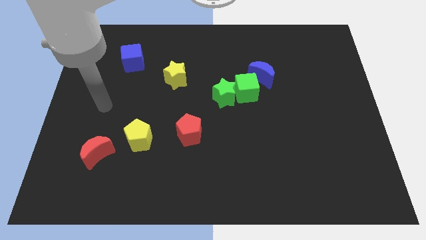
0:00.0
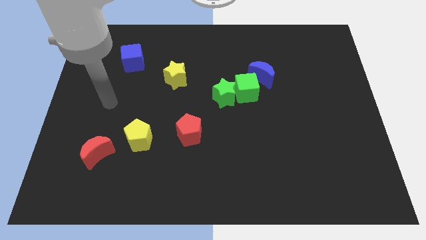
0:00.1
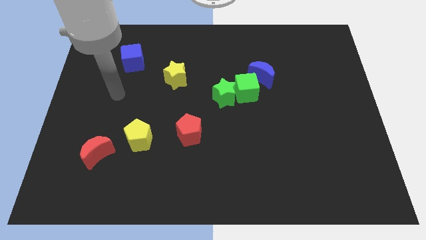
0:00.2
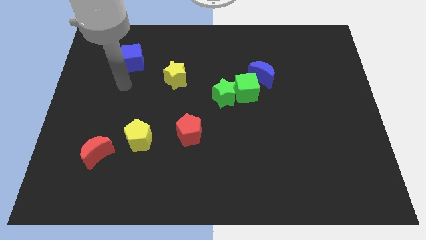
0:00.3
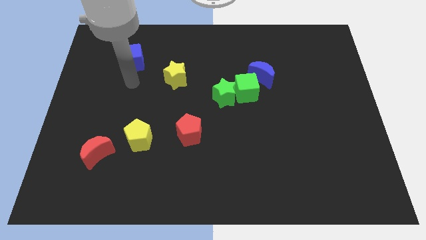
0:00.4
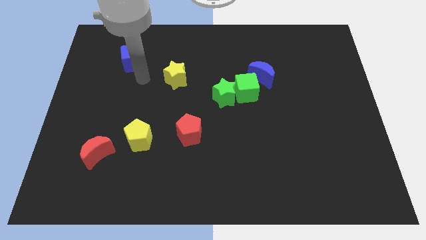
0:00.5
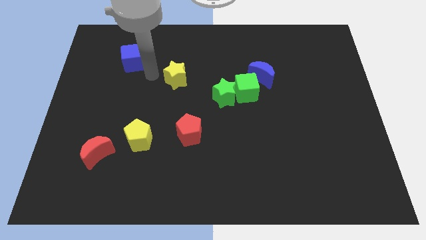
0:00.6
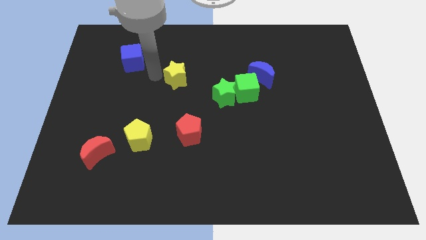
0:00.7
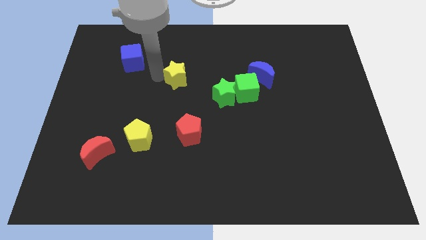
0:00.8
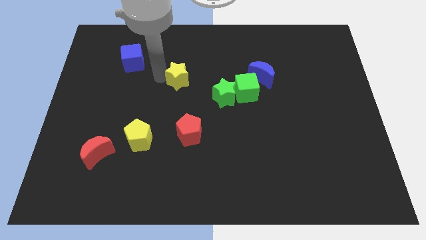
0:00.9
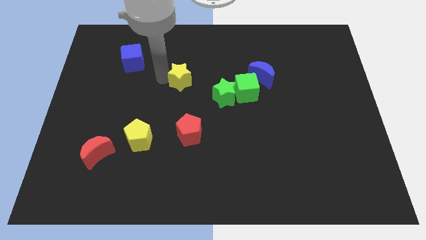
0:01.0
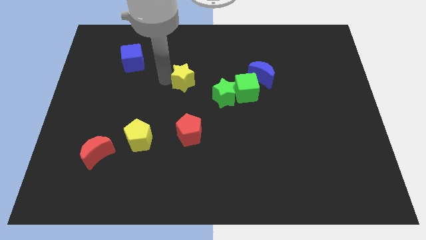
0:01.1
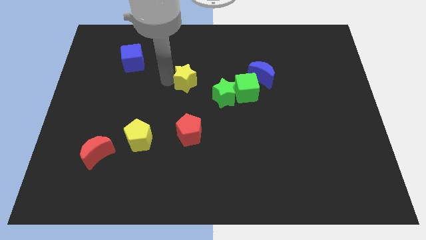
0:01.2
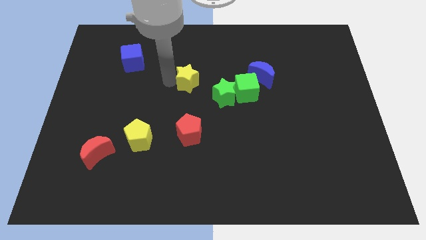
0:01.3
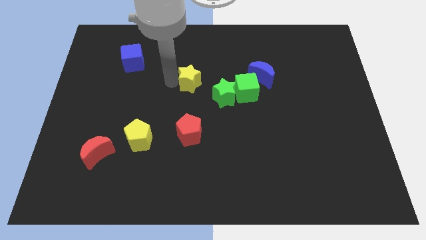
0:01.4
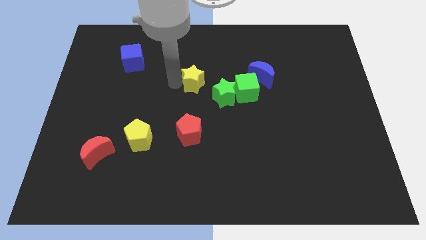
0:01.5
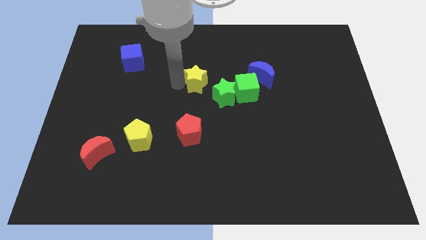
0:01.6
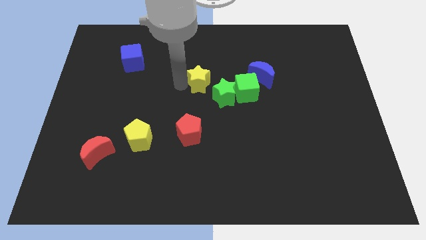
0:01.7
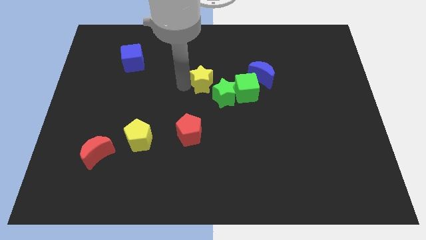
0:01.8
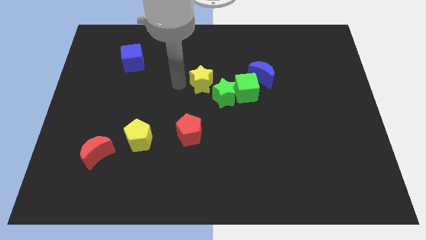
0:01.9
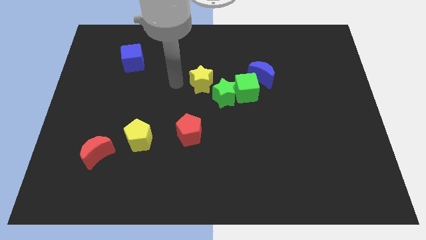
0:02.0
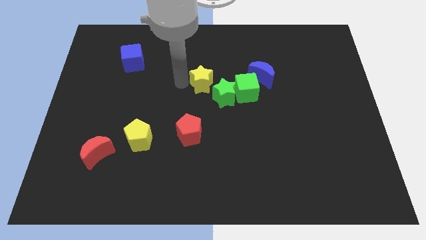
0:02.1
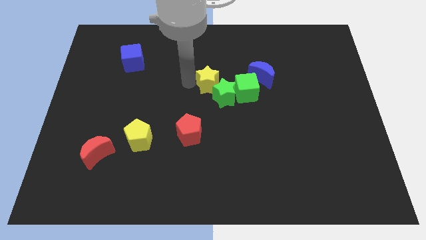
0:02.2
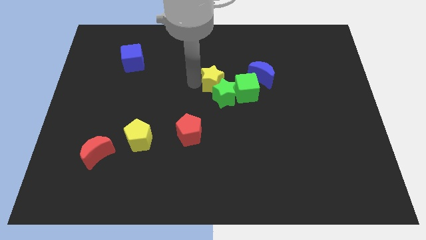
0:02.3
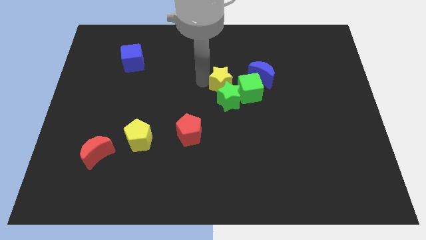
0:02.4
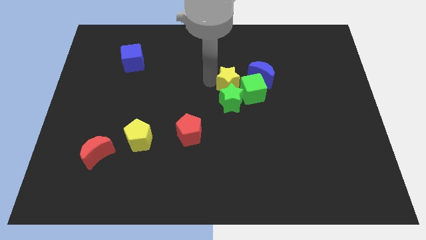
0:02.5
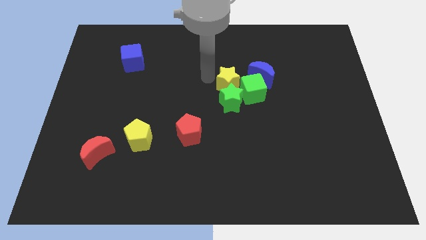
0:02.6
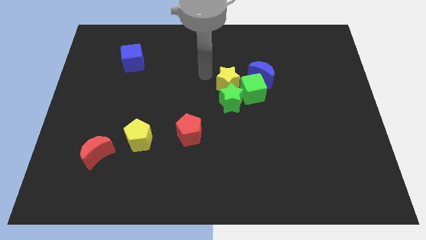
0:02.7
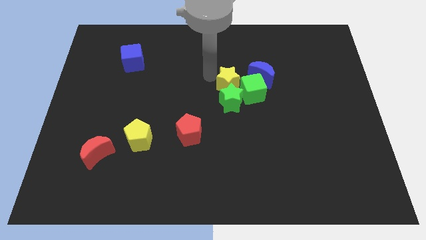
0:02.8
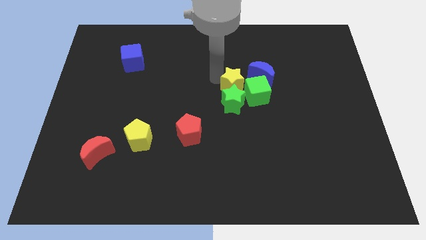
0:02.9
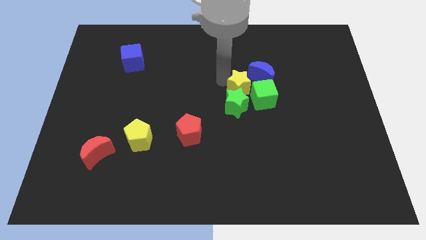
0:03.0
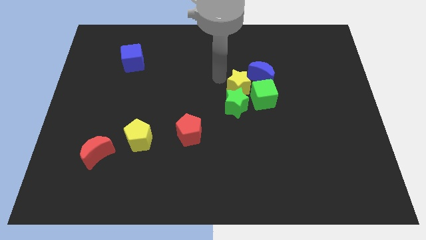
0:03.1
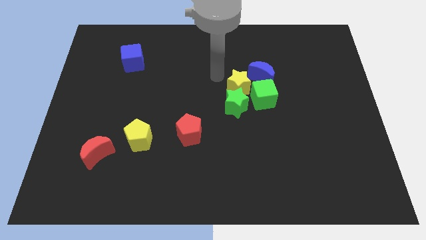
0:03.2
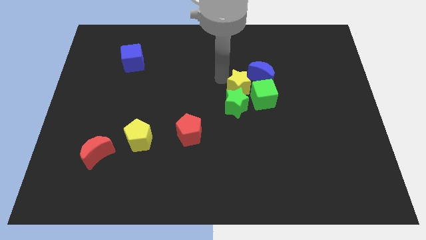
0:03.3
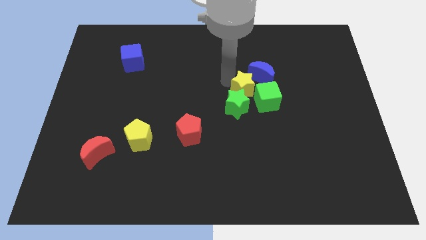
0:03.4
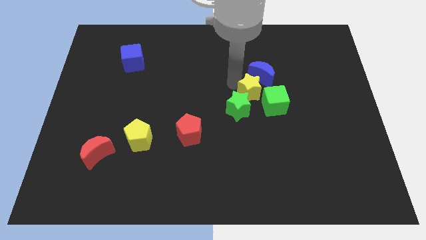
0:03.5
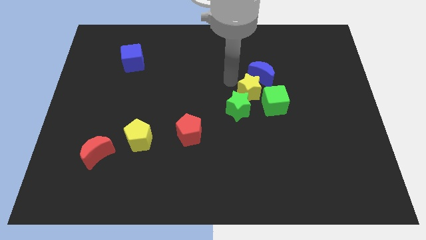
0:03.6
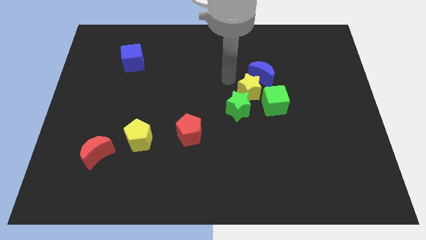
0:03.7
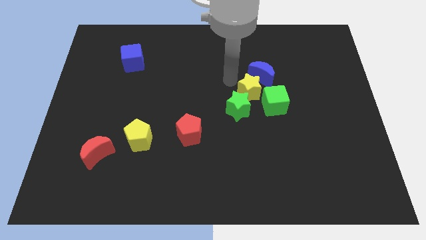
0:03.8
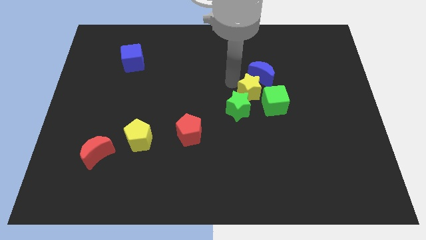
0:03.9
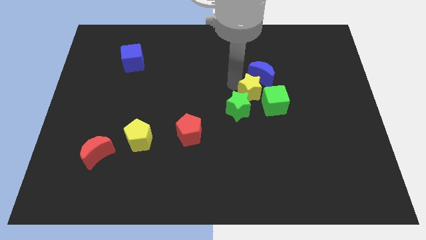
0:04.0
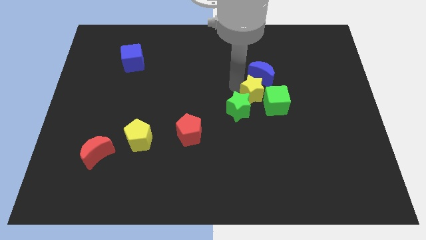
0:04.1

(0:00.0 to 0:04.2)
move the yellow star next to the green cube

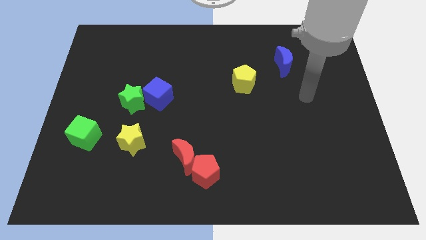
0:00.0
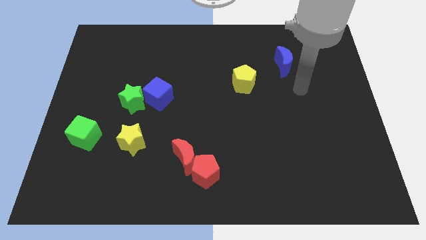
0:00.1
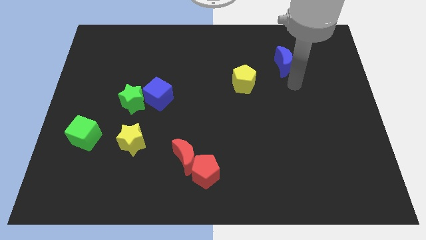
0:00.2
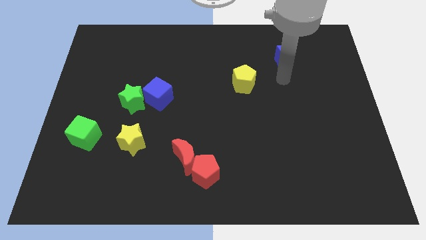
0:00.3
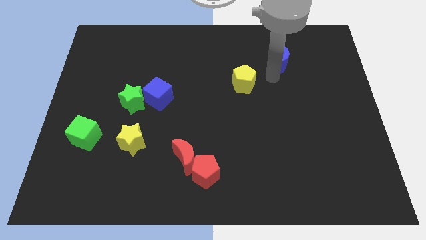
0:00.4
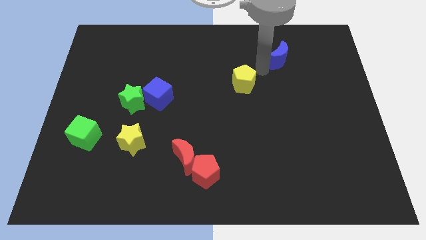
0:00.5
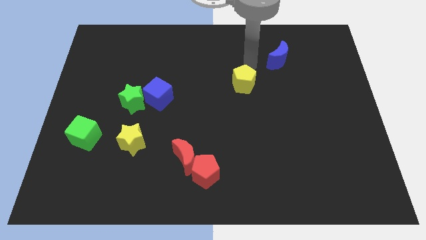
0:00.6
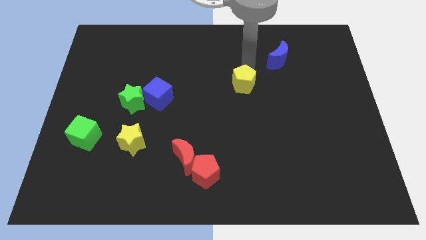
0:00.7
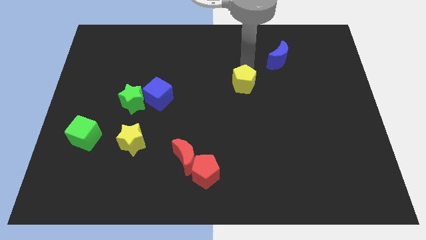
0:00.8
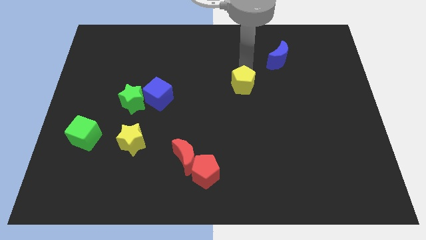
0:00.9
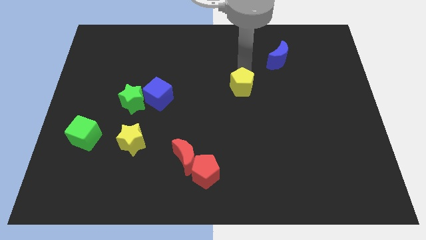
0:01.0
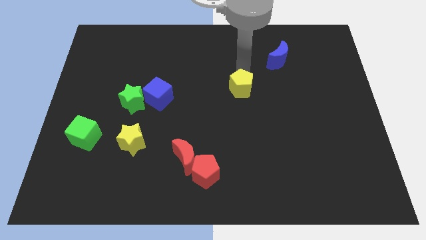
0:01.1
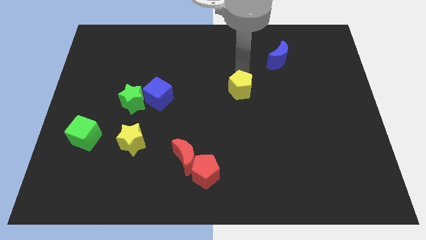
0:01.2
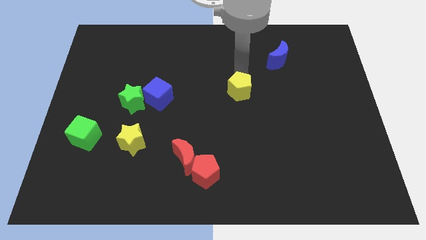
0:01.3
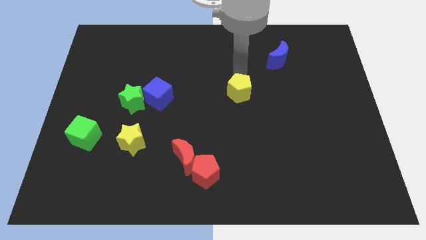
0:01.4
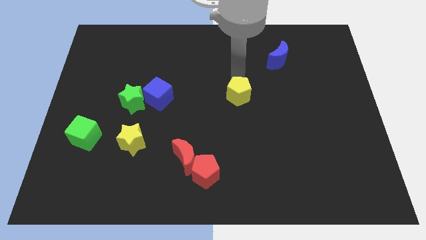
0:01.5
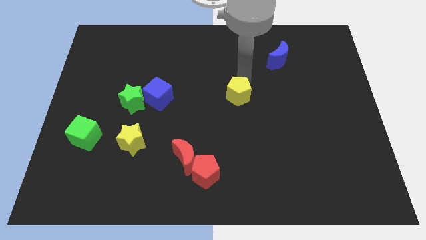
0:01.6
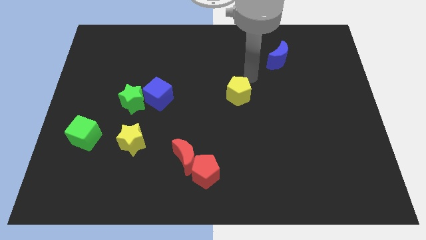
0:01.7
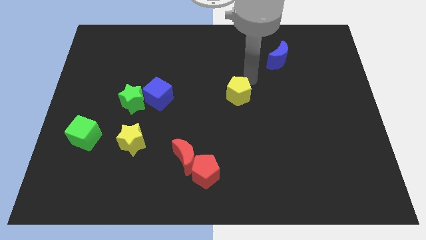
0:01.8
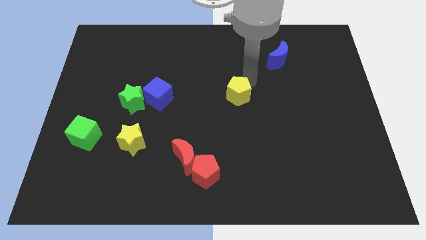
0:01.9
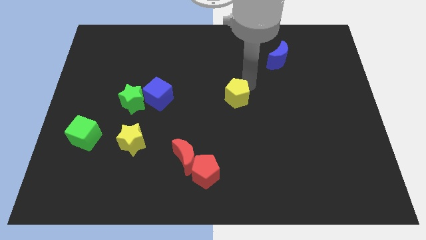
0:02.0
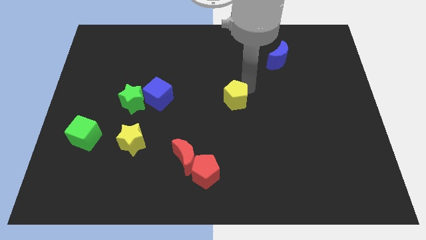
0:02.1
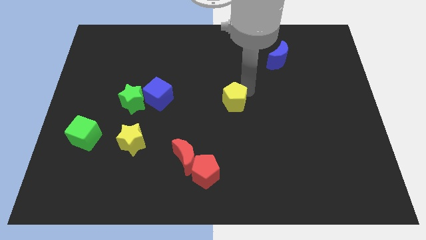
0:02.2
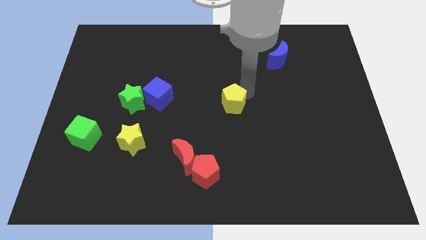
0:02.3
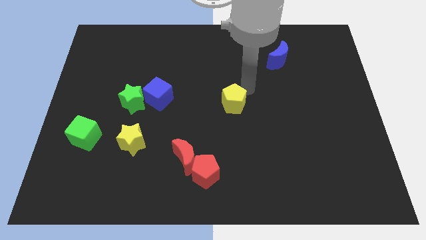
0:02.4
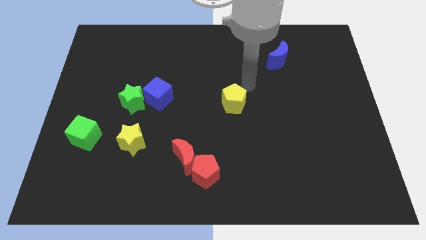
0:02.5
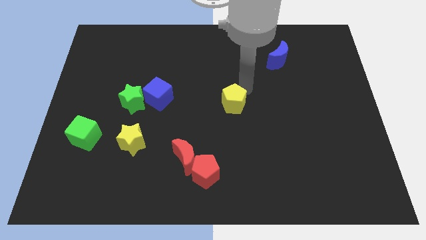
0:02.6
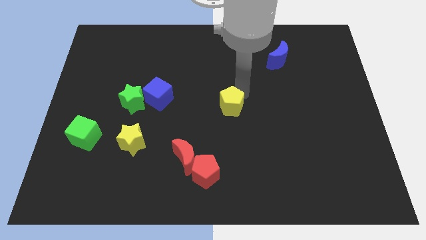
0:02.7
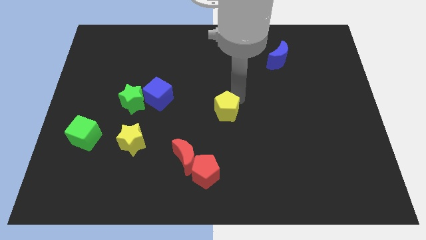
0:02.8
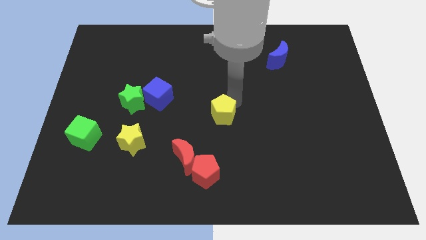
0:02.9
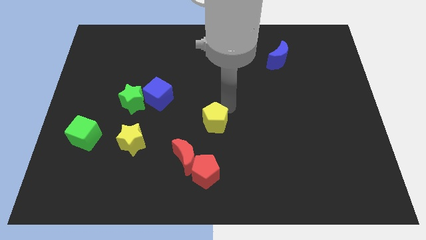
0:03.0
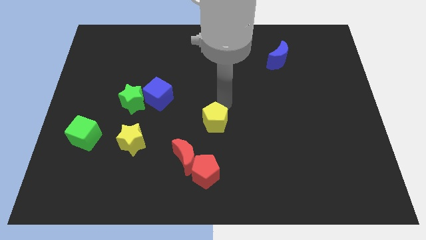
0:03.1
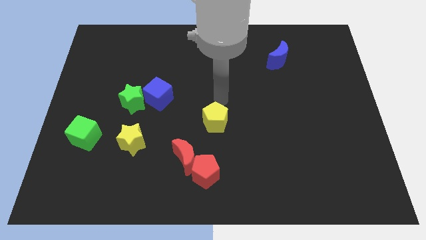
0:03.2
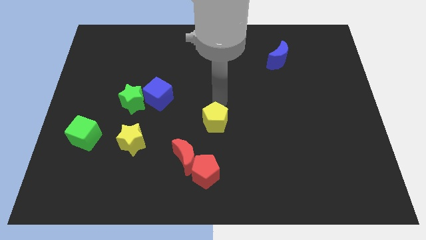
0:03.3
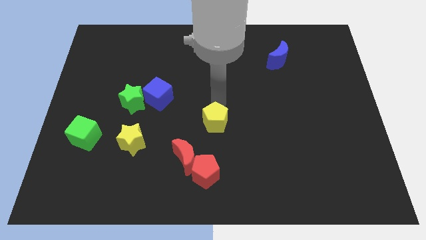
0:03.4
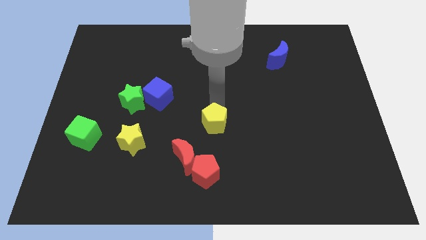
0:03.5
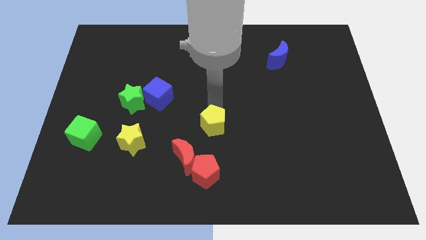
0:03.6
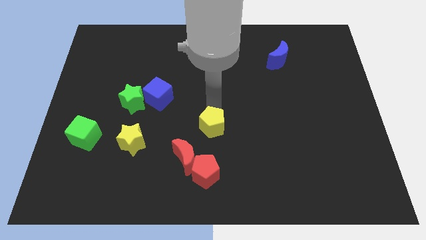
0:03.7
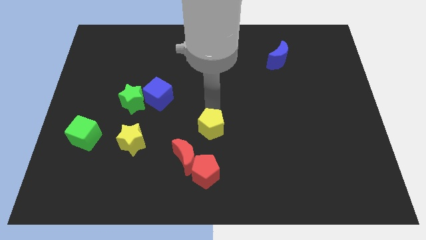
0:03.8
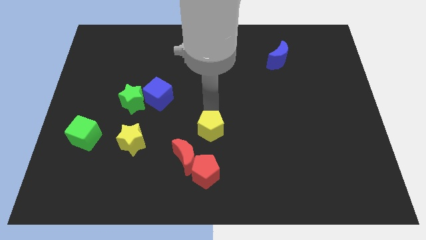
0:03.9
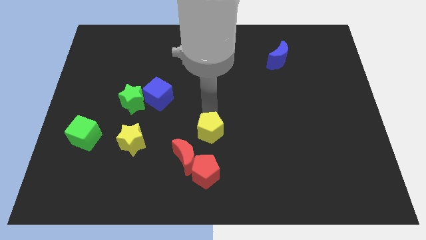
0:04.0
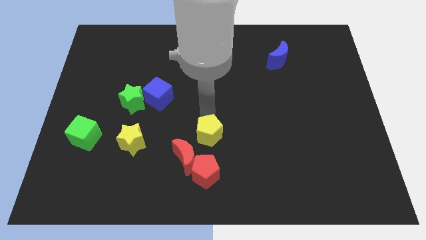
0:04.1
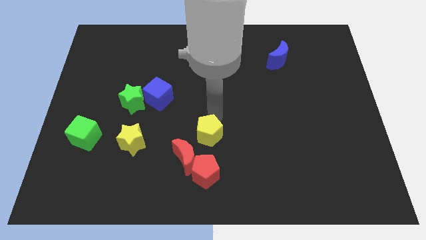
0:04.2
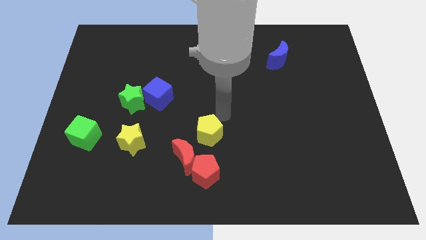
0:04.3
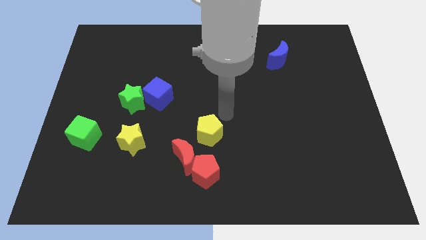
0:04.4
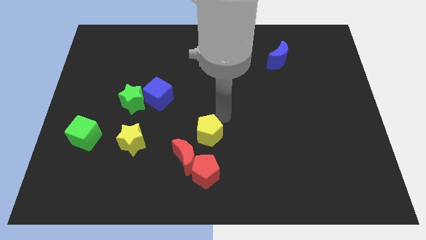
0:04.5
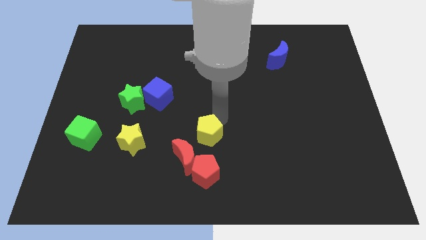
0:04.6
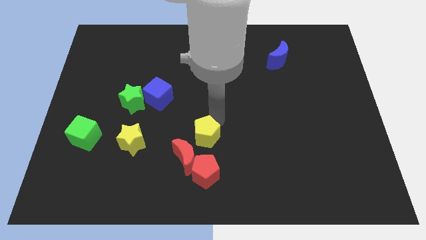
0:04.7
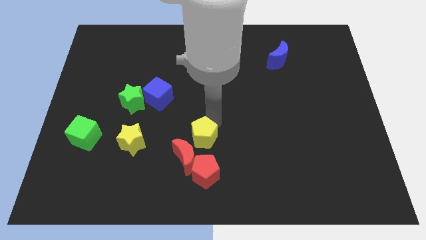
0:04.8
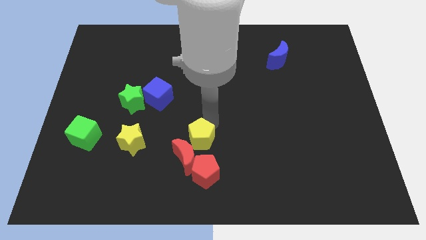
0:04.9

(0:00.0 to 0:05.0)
move the yellow pentagon to the red moon
